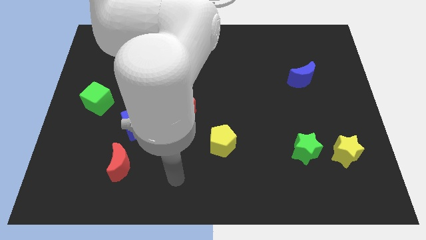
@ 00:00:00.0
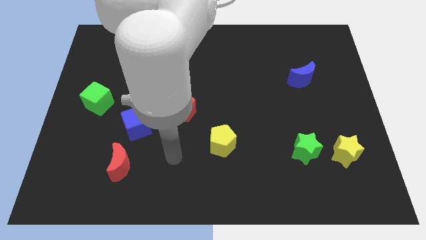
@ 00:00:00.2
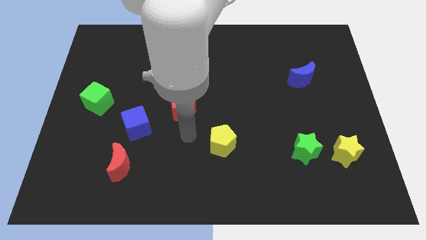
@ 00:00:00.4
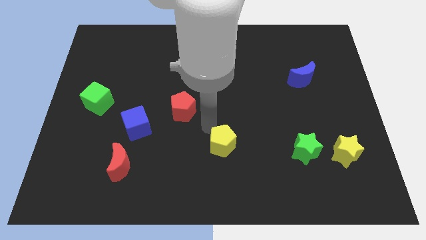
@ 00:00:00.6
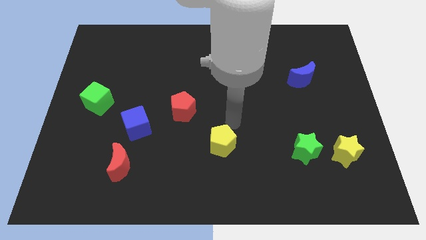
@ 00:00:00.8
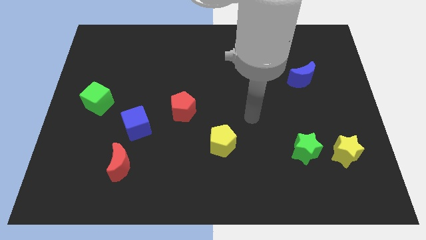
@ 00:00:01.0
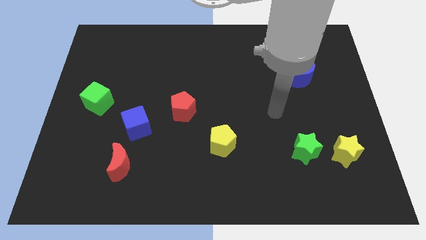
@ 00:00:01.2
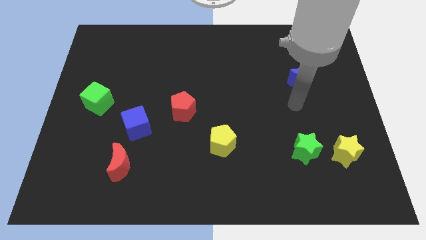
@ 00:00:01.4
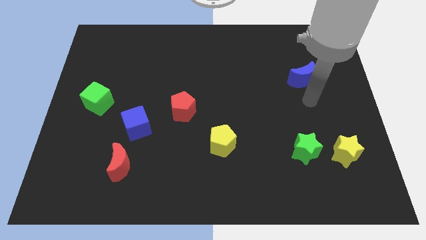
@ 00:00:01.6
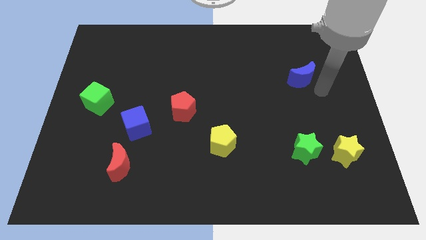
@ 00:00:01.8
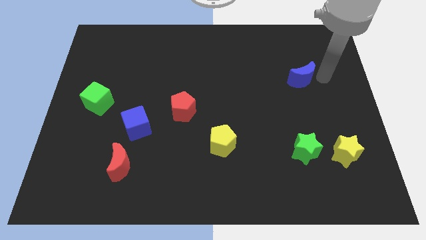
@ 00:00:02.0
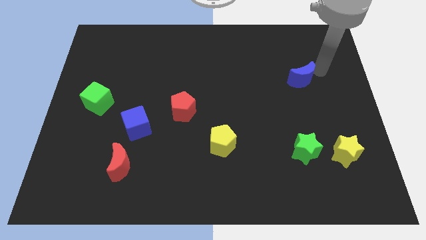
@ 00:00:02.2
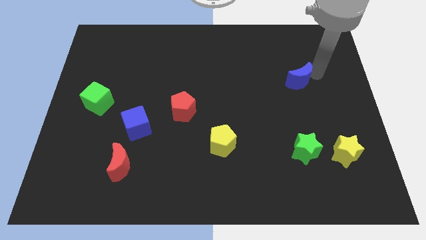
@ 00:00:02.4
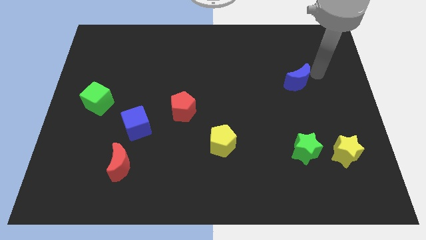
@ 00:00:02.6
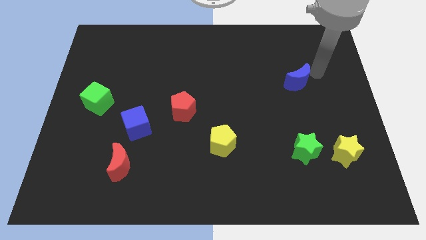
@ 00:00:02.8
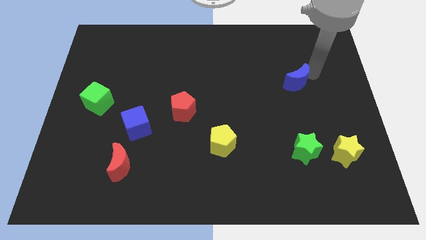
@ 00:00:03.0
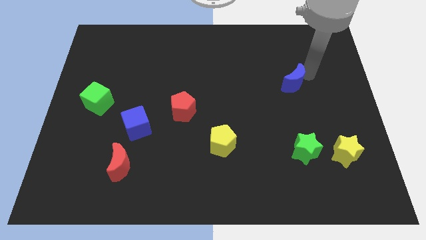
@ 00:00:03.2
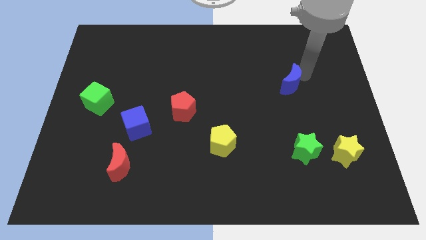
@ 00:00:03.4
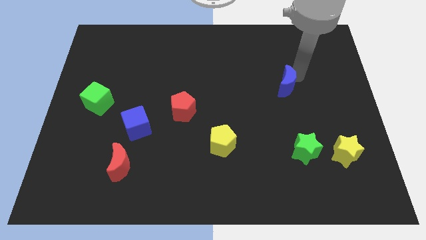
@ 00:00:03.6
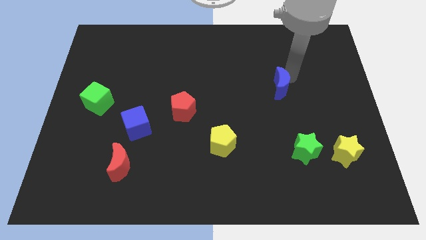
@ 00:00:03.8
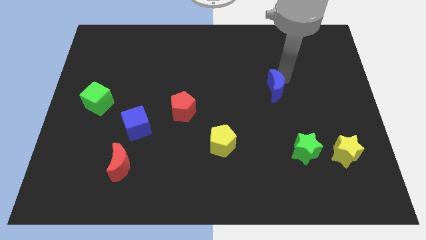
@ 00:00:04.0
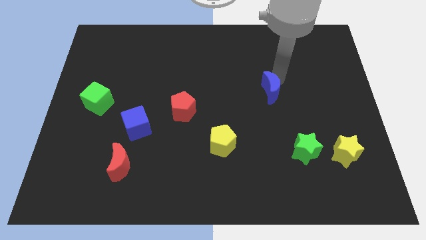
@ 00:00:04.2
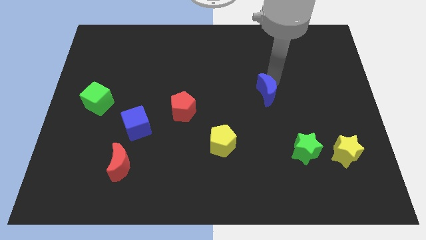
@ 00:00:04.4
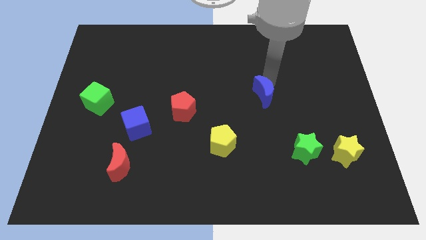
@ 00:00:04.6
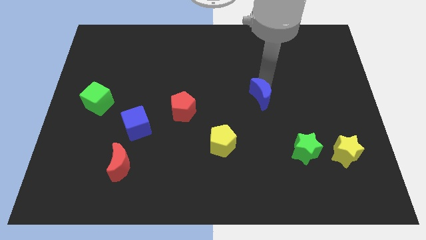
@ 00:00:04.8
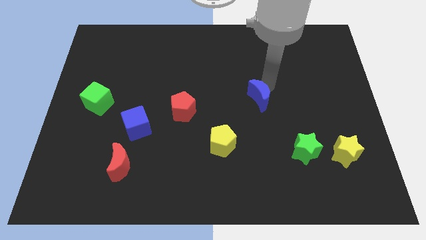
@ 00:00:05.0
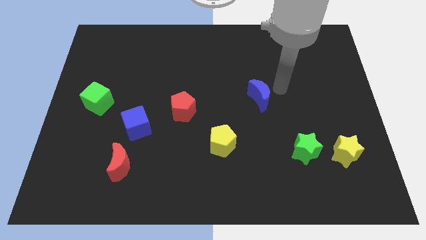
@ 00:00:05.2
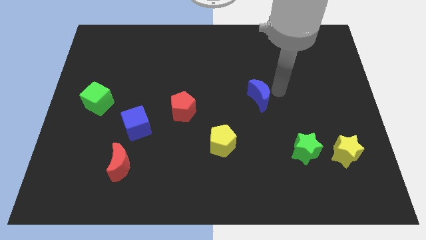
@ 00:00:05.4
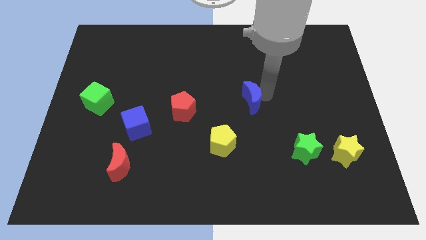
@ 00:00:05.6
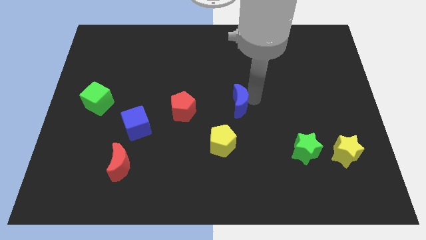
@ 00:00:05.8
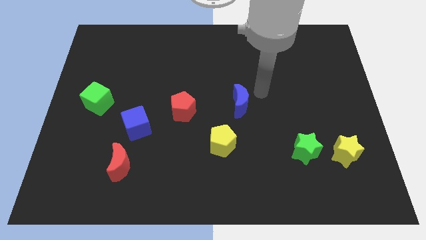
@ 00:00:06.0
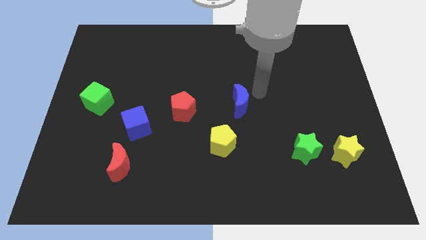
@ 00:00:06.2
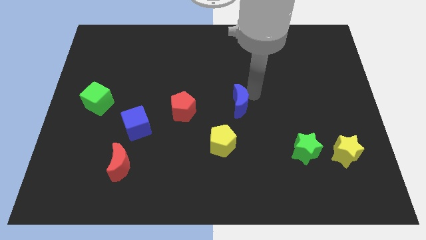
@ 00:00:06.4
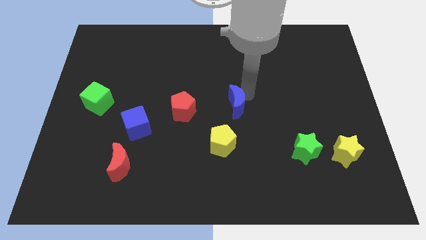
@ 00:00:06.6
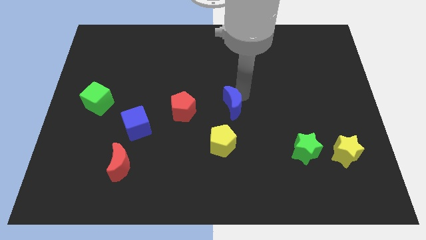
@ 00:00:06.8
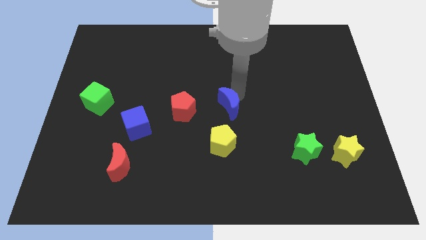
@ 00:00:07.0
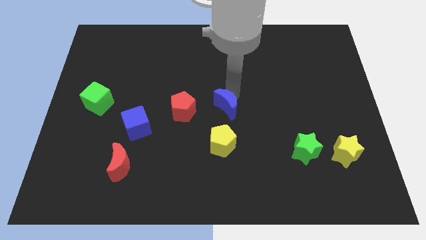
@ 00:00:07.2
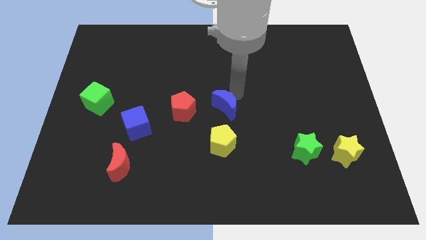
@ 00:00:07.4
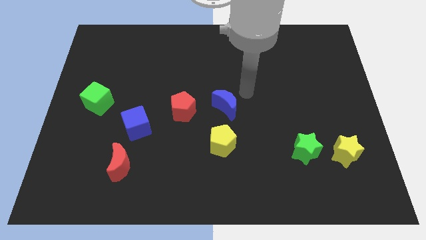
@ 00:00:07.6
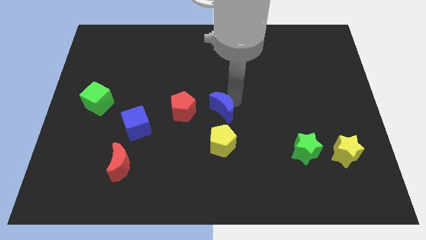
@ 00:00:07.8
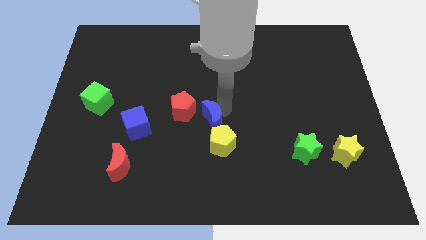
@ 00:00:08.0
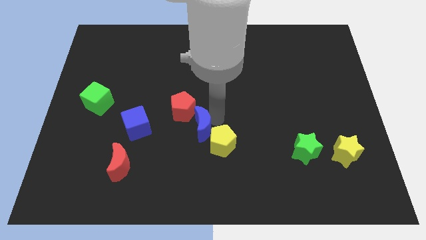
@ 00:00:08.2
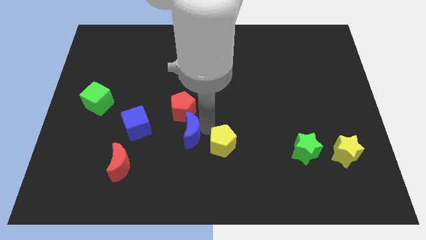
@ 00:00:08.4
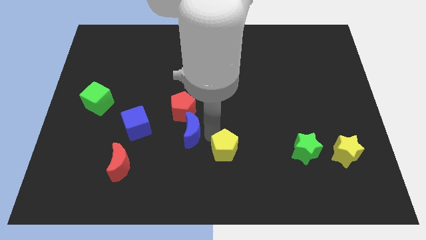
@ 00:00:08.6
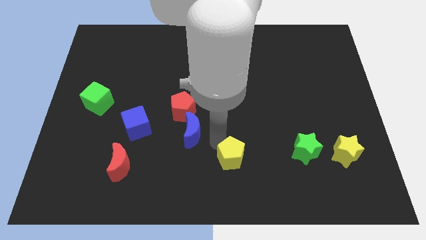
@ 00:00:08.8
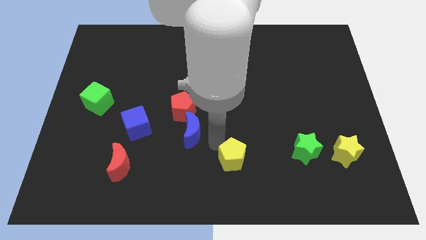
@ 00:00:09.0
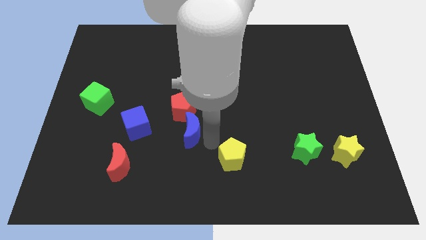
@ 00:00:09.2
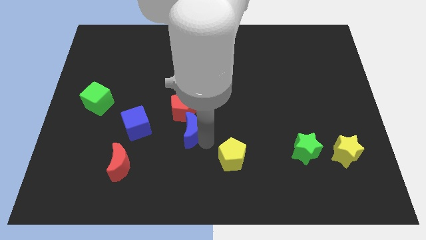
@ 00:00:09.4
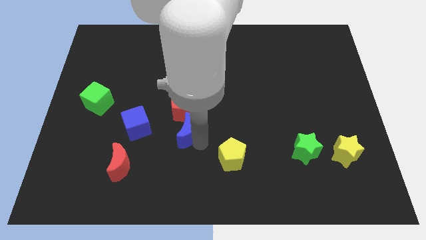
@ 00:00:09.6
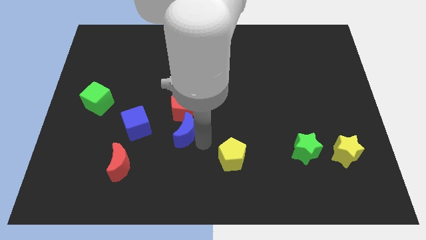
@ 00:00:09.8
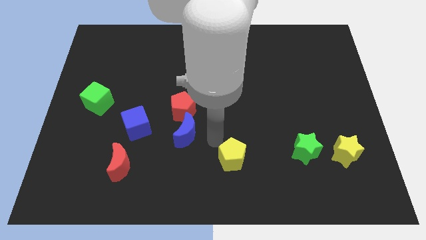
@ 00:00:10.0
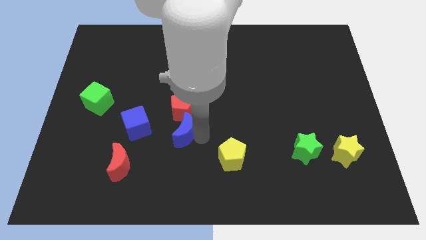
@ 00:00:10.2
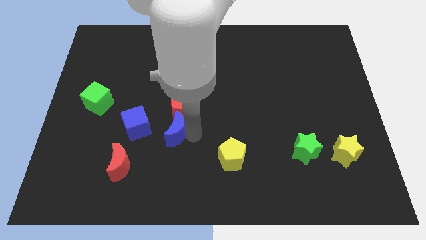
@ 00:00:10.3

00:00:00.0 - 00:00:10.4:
push the blue moon to the bottom left side of the red pentagon

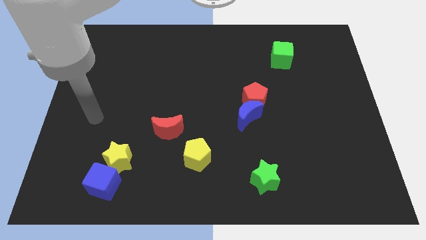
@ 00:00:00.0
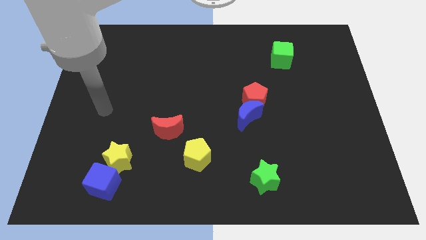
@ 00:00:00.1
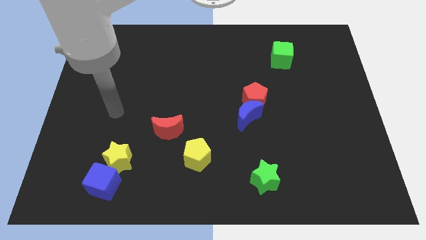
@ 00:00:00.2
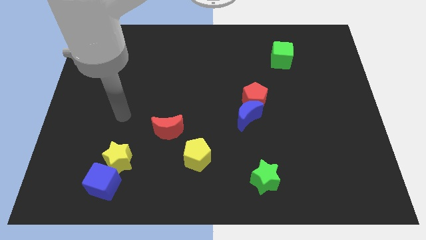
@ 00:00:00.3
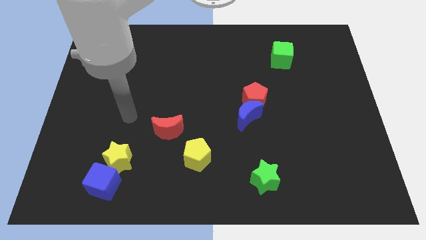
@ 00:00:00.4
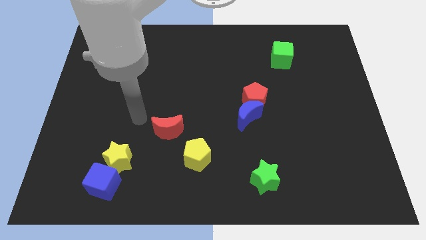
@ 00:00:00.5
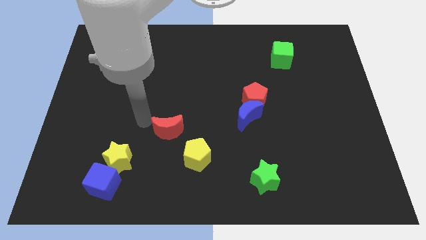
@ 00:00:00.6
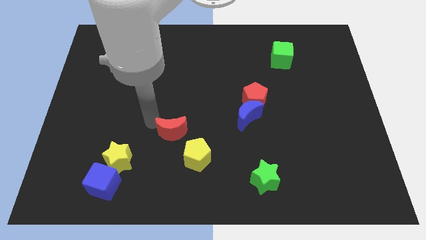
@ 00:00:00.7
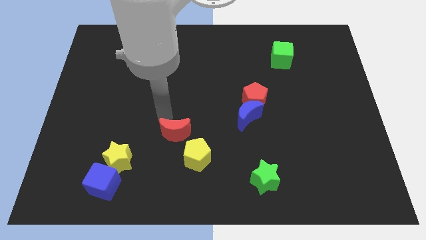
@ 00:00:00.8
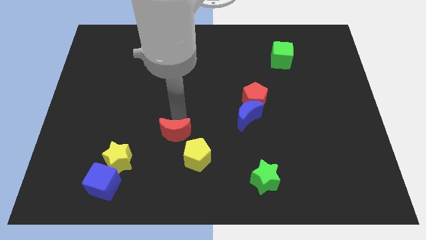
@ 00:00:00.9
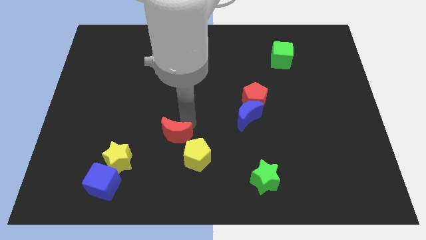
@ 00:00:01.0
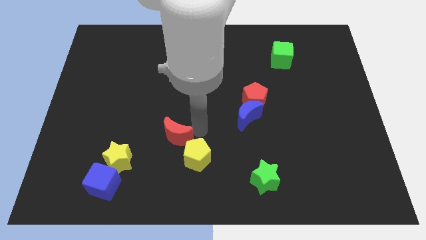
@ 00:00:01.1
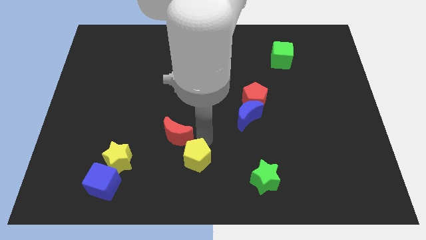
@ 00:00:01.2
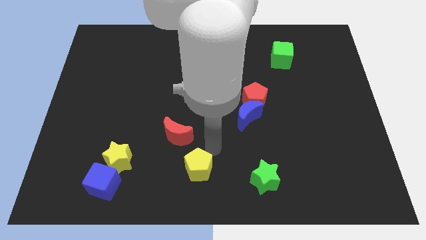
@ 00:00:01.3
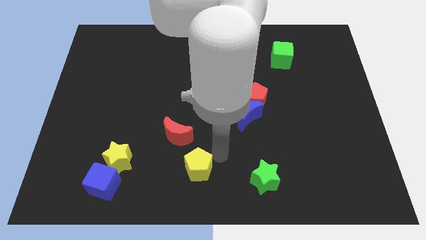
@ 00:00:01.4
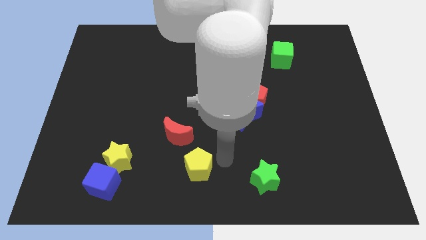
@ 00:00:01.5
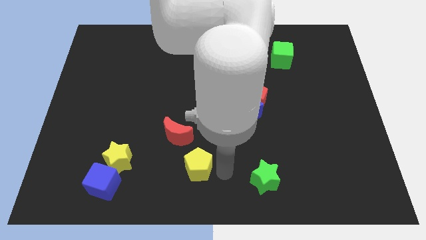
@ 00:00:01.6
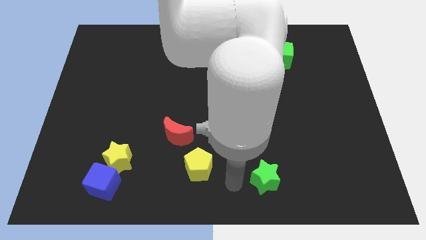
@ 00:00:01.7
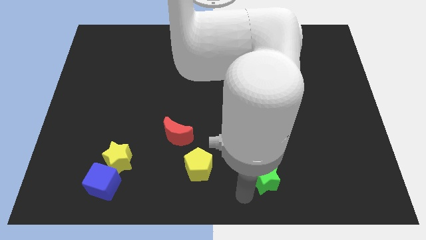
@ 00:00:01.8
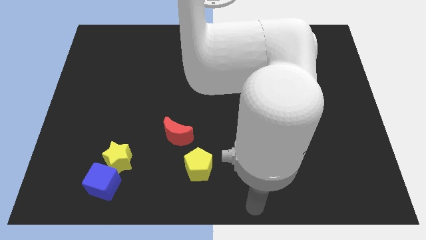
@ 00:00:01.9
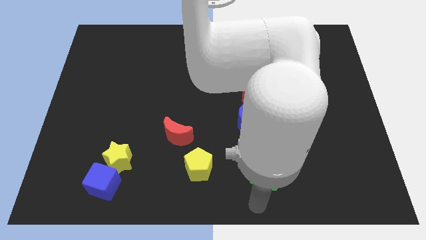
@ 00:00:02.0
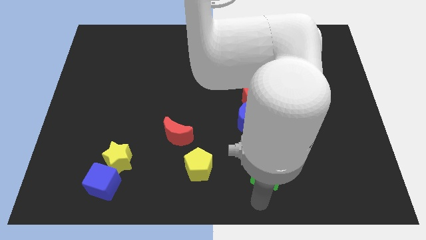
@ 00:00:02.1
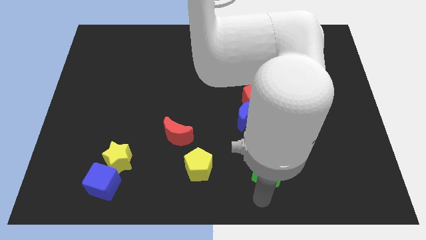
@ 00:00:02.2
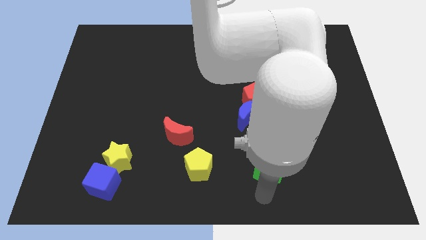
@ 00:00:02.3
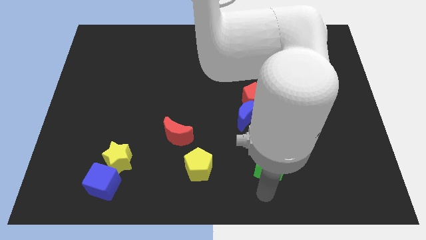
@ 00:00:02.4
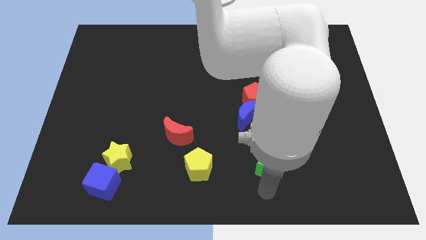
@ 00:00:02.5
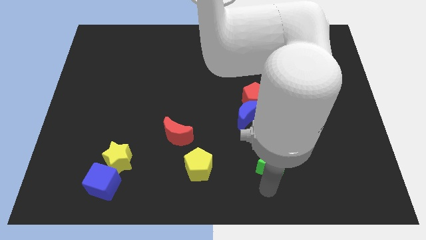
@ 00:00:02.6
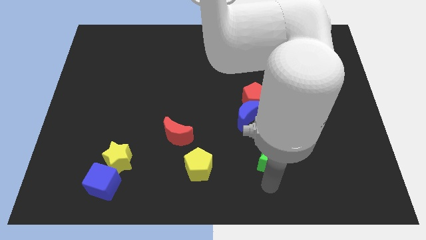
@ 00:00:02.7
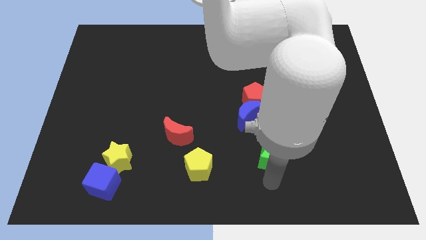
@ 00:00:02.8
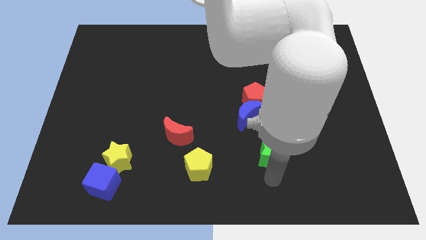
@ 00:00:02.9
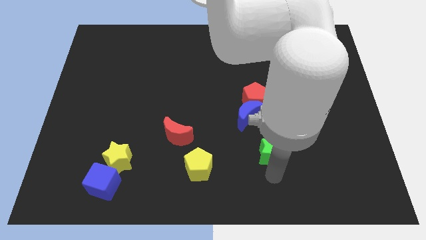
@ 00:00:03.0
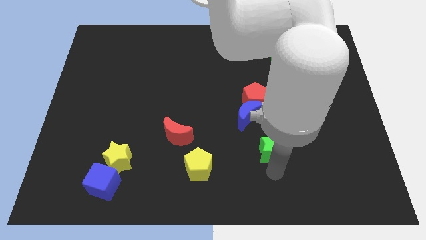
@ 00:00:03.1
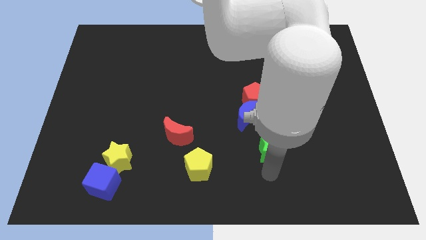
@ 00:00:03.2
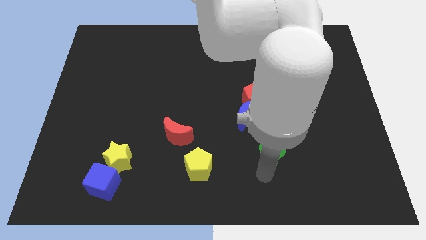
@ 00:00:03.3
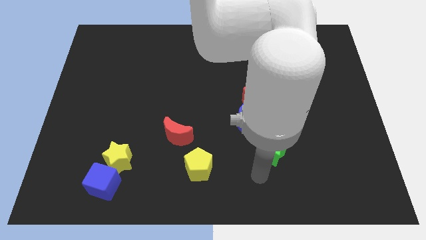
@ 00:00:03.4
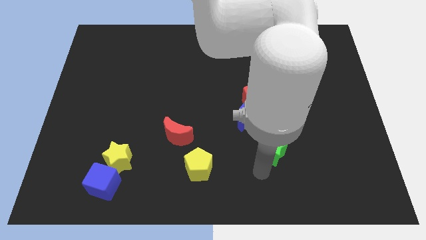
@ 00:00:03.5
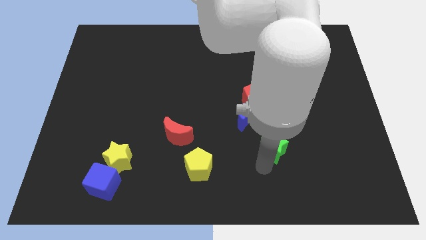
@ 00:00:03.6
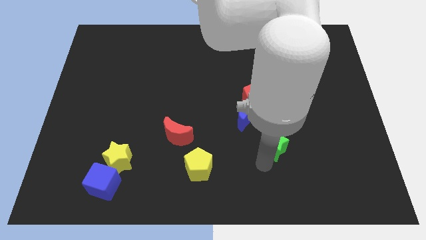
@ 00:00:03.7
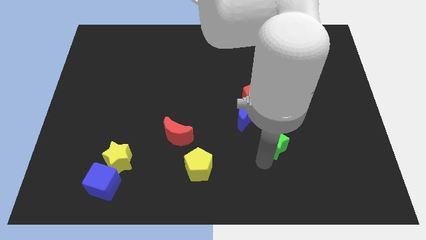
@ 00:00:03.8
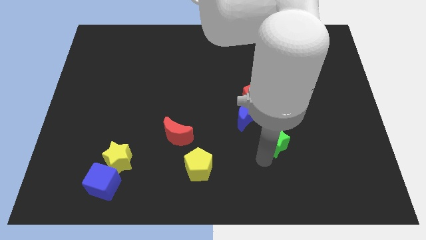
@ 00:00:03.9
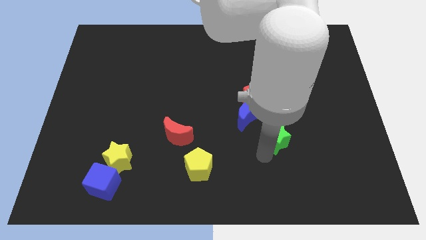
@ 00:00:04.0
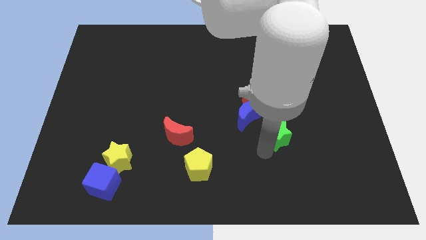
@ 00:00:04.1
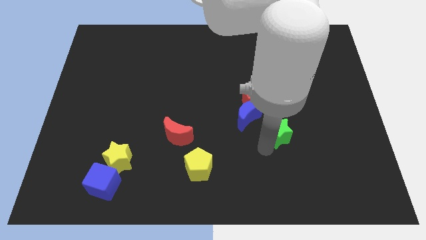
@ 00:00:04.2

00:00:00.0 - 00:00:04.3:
put the green star to the right side of the blue moon
